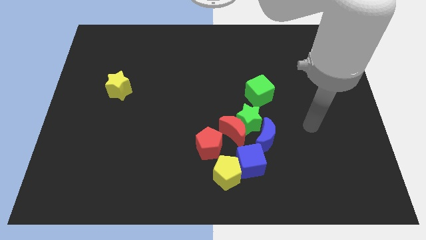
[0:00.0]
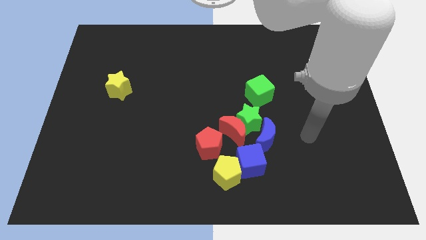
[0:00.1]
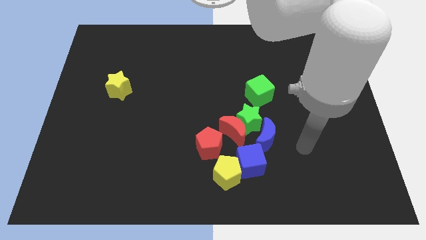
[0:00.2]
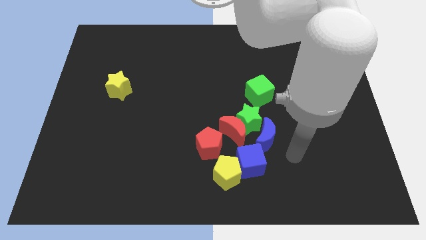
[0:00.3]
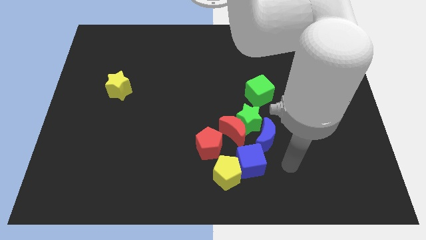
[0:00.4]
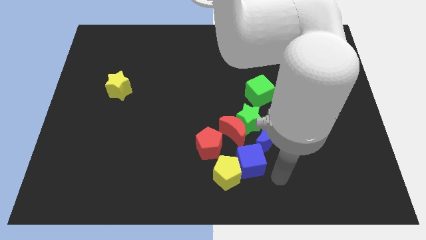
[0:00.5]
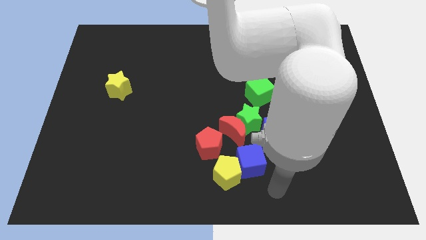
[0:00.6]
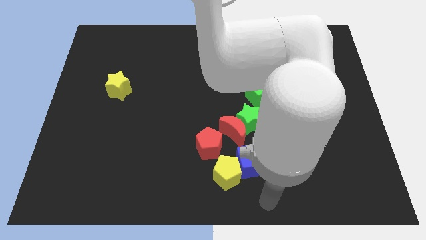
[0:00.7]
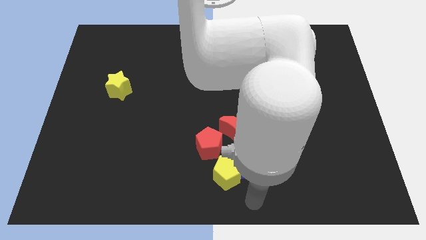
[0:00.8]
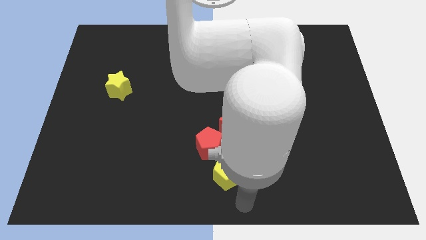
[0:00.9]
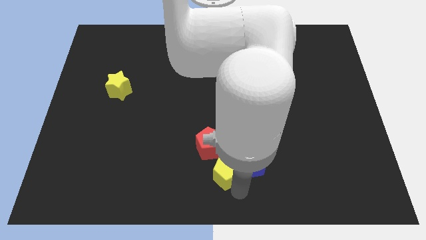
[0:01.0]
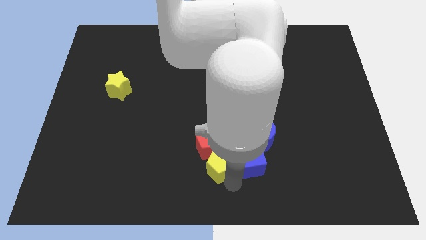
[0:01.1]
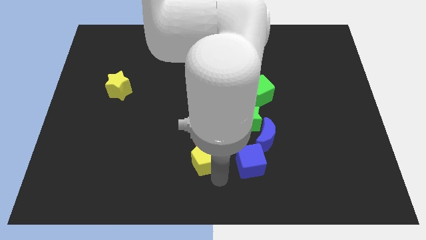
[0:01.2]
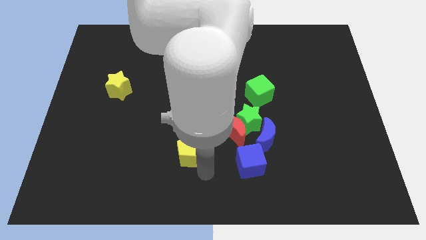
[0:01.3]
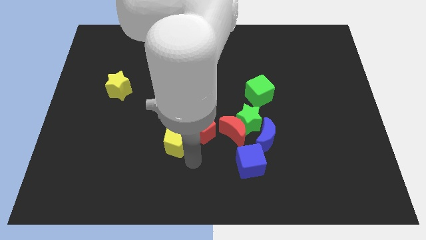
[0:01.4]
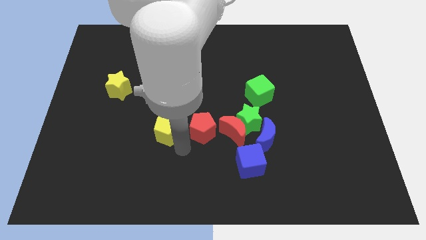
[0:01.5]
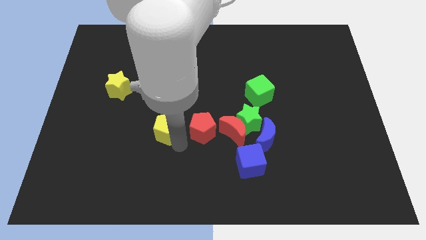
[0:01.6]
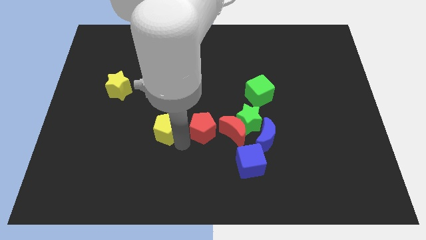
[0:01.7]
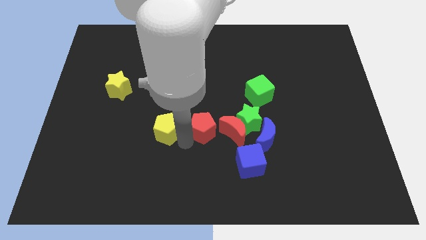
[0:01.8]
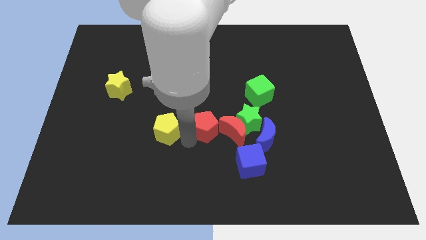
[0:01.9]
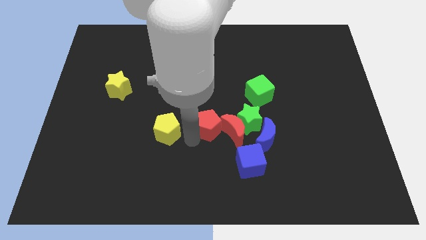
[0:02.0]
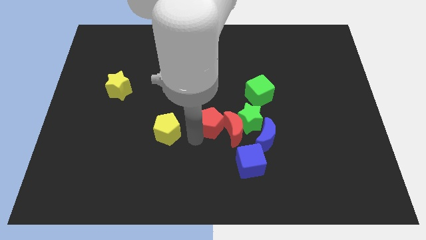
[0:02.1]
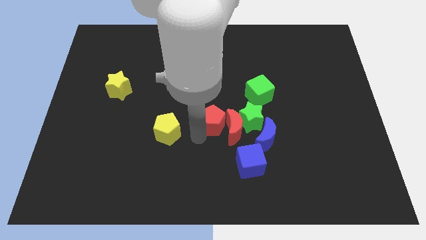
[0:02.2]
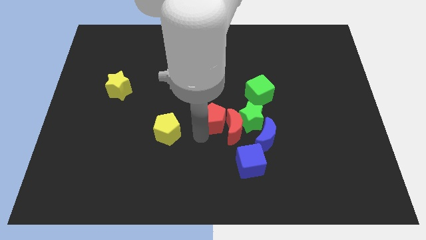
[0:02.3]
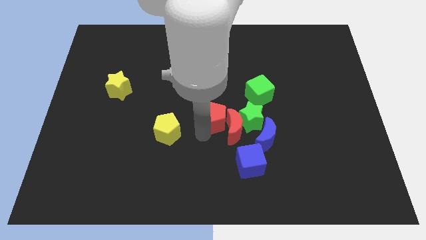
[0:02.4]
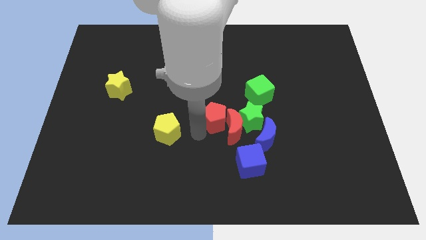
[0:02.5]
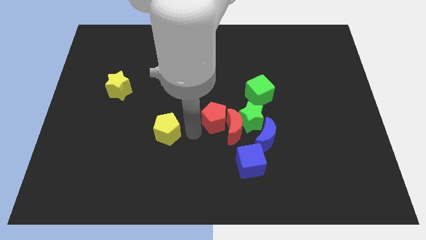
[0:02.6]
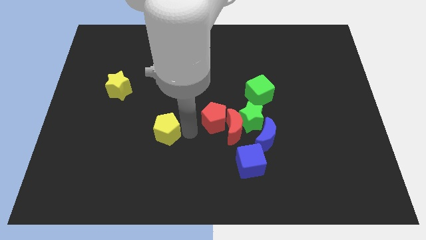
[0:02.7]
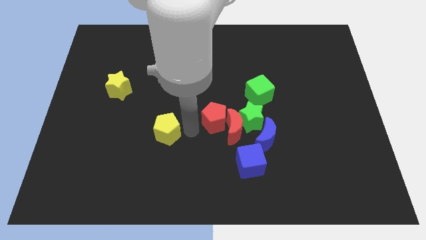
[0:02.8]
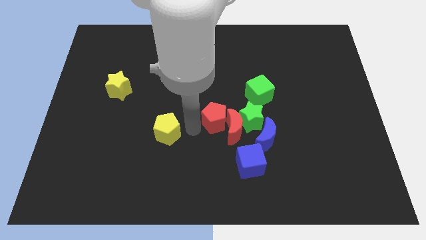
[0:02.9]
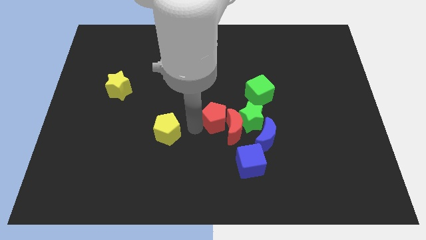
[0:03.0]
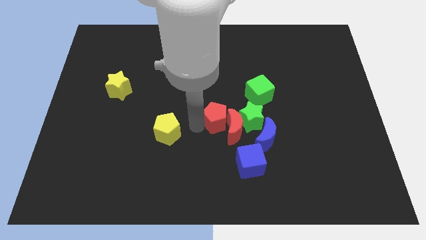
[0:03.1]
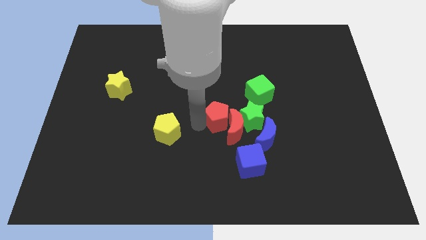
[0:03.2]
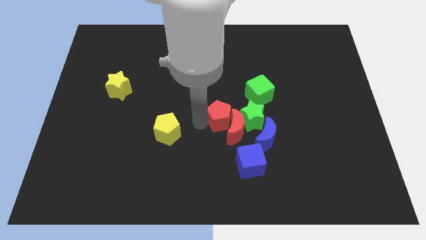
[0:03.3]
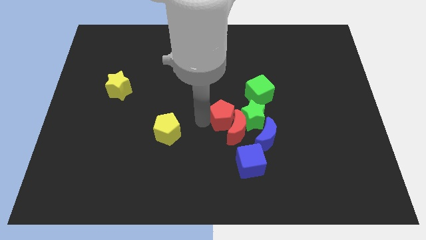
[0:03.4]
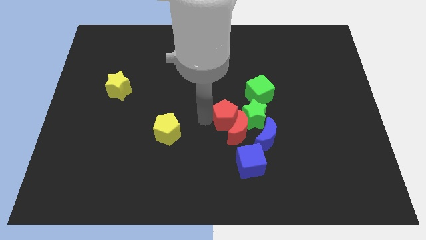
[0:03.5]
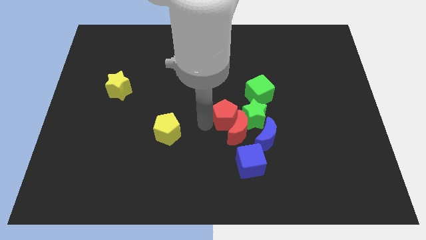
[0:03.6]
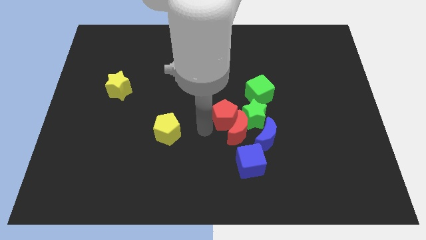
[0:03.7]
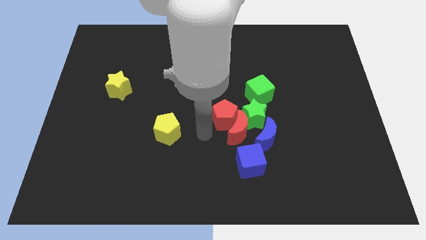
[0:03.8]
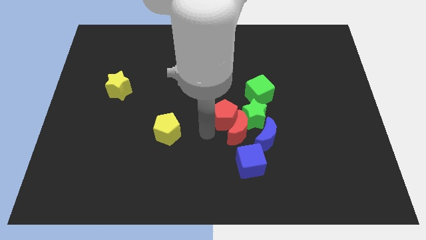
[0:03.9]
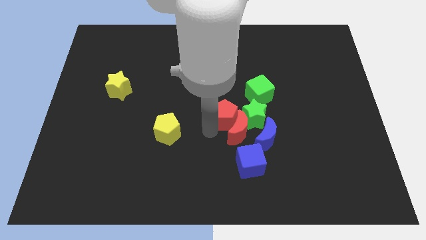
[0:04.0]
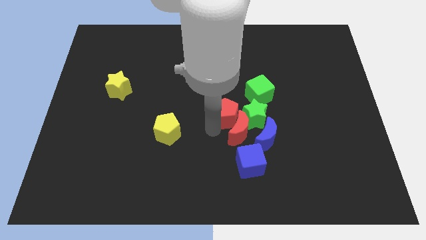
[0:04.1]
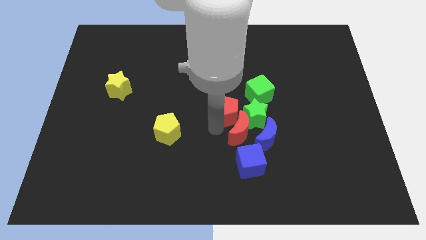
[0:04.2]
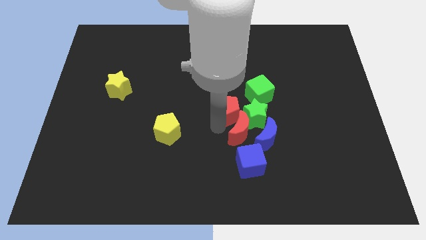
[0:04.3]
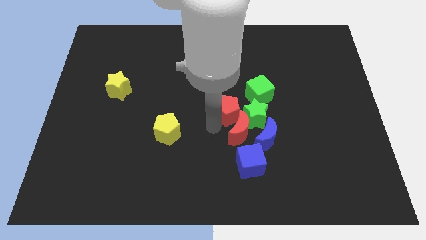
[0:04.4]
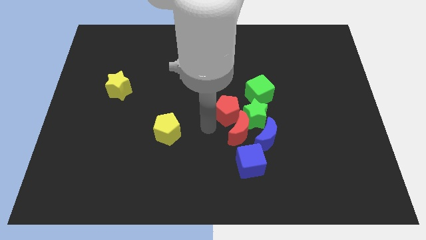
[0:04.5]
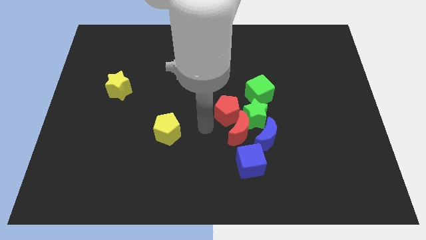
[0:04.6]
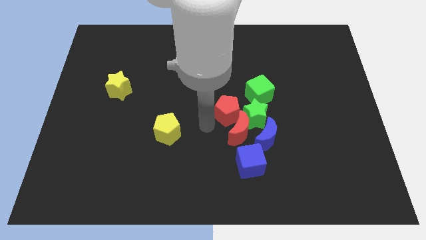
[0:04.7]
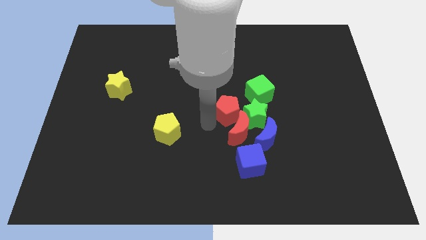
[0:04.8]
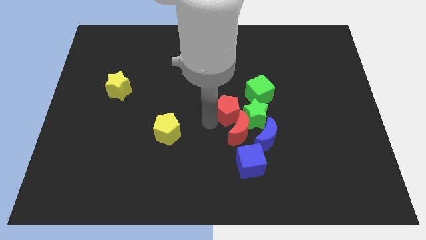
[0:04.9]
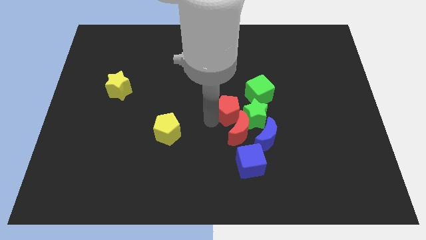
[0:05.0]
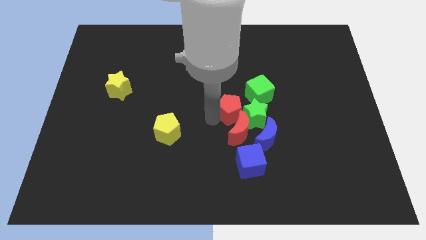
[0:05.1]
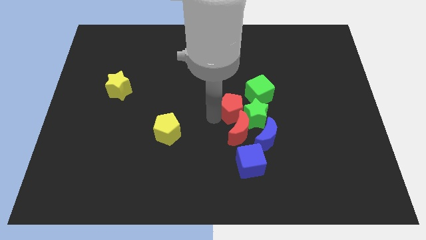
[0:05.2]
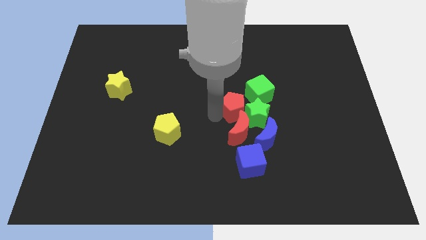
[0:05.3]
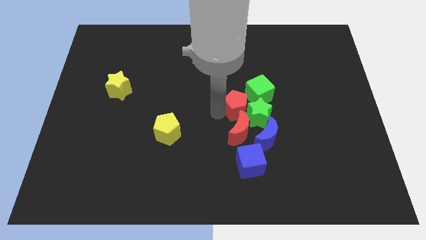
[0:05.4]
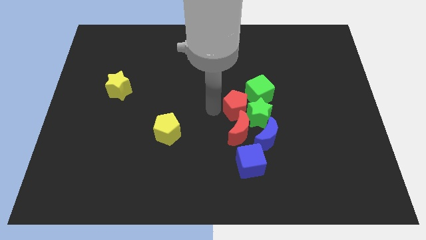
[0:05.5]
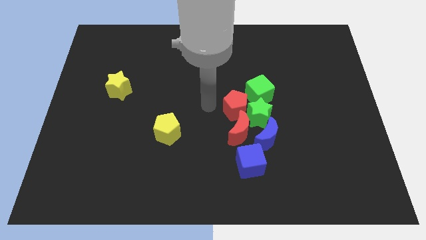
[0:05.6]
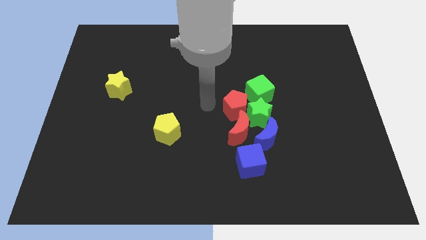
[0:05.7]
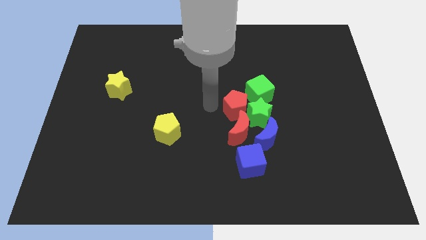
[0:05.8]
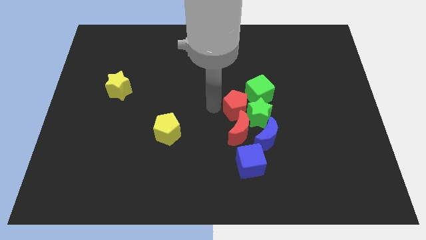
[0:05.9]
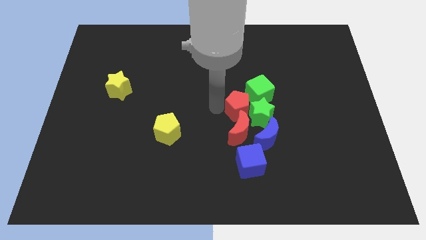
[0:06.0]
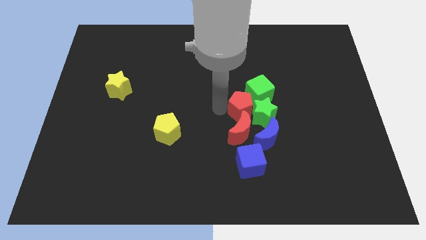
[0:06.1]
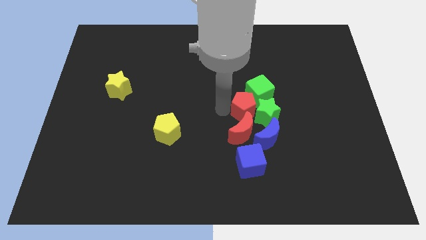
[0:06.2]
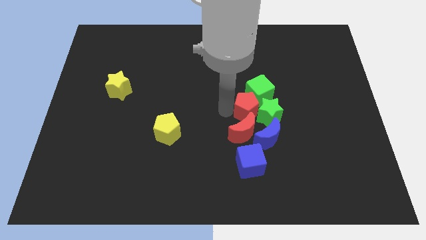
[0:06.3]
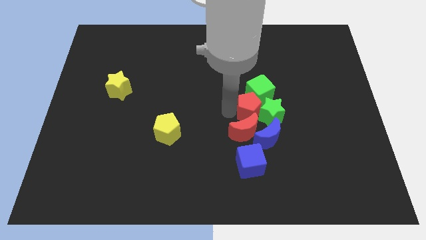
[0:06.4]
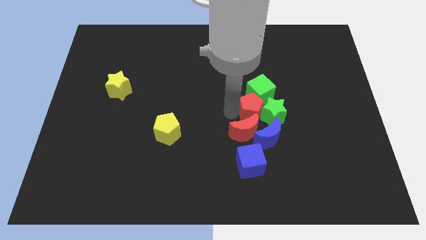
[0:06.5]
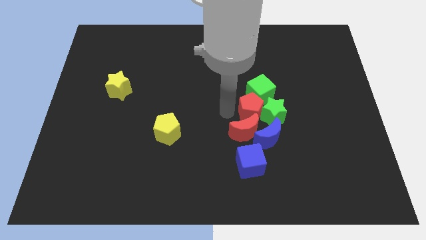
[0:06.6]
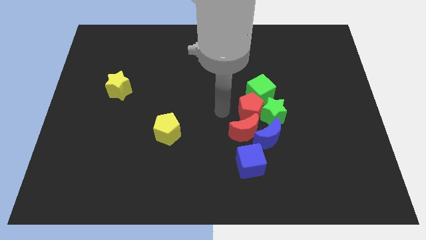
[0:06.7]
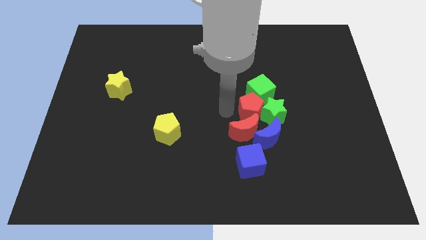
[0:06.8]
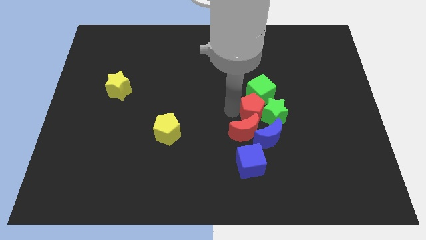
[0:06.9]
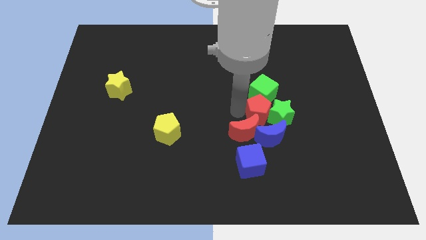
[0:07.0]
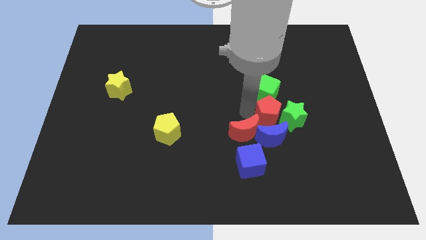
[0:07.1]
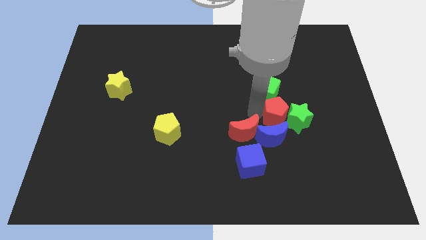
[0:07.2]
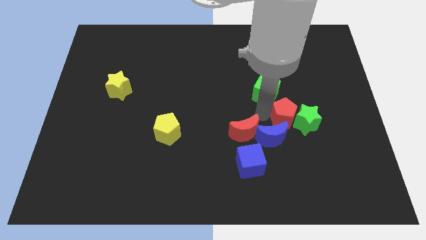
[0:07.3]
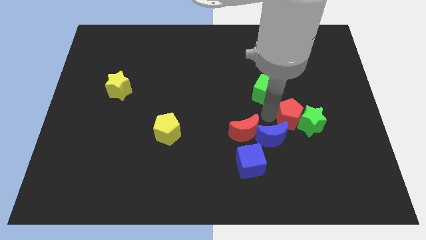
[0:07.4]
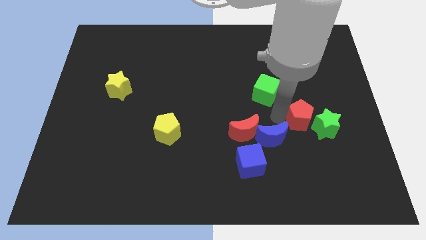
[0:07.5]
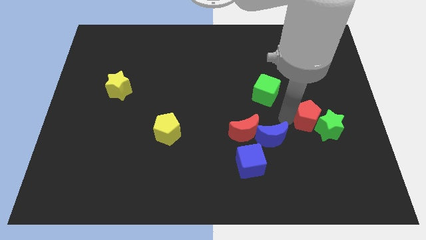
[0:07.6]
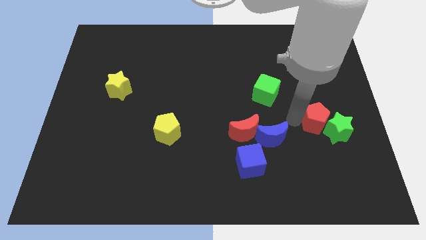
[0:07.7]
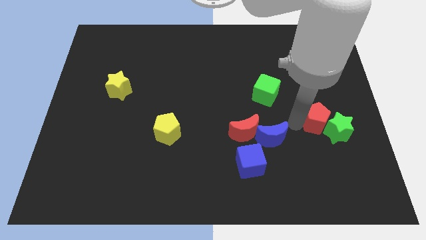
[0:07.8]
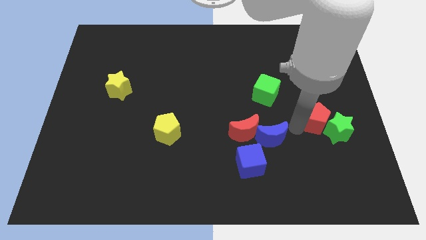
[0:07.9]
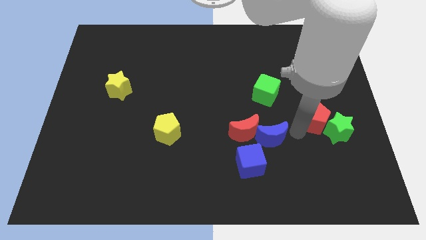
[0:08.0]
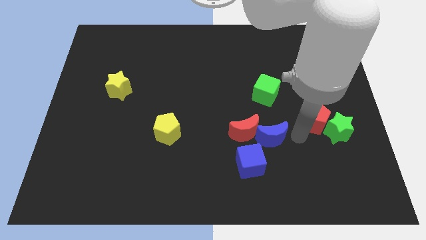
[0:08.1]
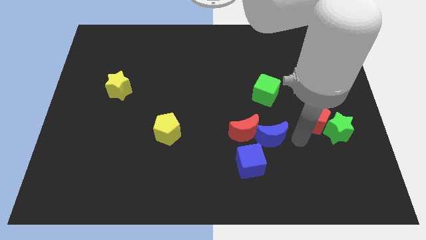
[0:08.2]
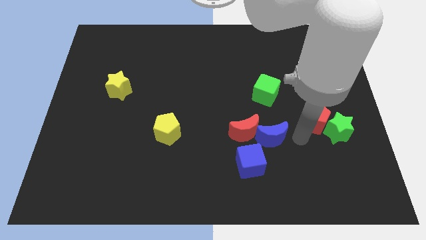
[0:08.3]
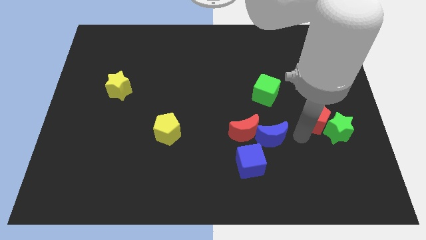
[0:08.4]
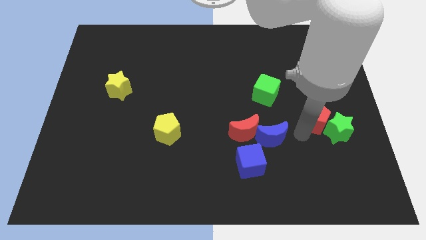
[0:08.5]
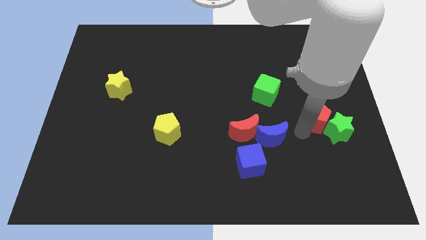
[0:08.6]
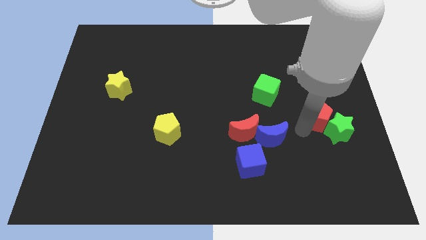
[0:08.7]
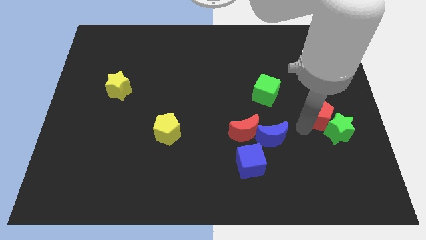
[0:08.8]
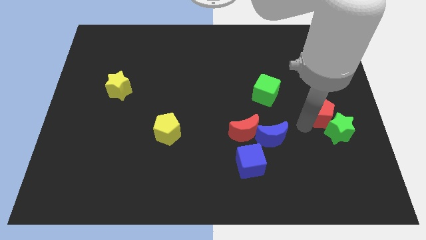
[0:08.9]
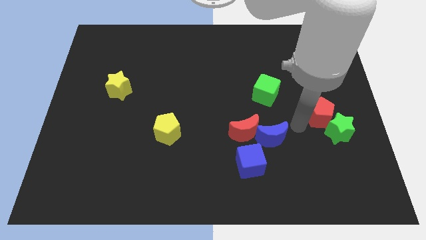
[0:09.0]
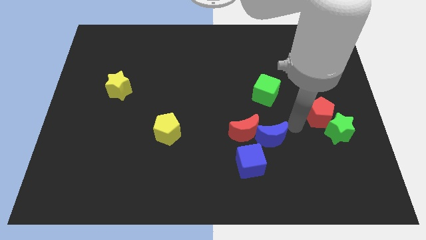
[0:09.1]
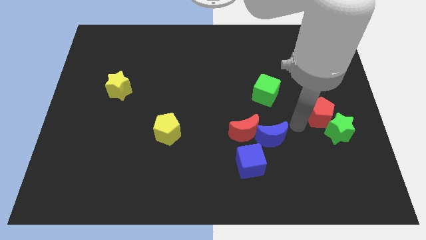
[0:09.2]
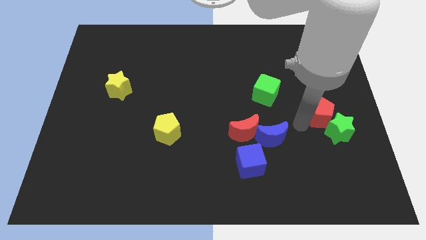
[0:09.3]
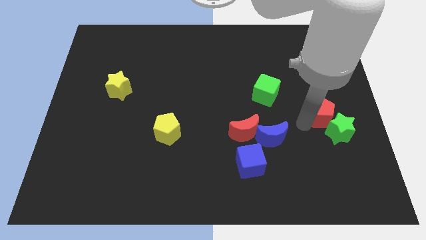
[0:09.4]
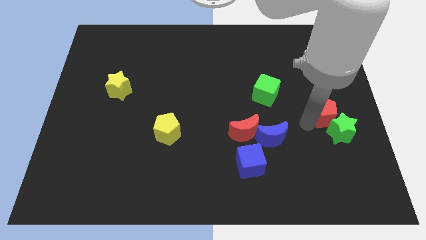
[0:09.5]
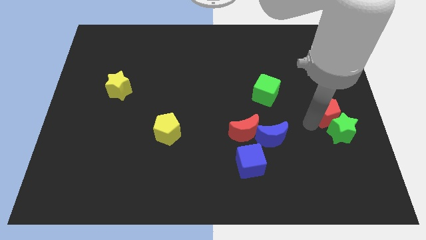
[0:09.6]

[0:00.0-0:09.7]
slide the red pentagon to the center right
